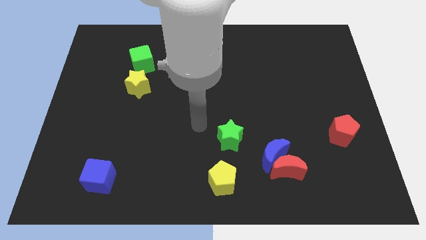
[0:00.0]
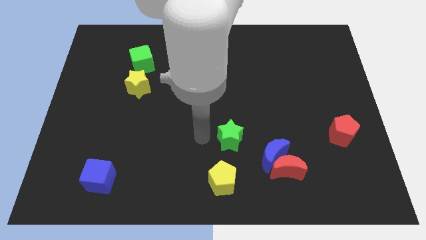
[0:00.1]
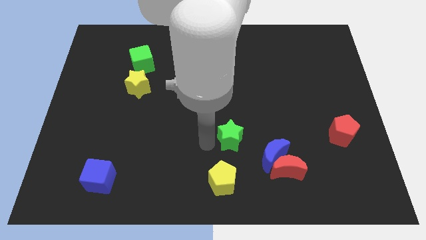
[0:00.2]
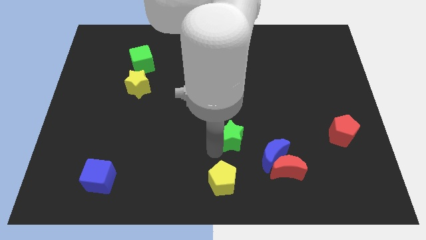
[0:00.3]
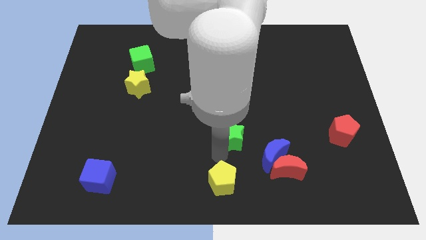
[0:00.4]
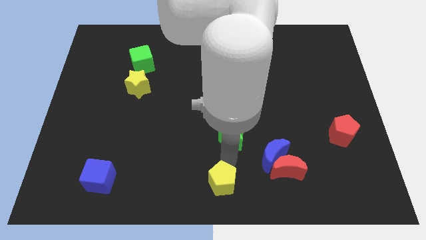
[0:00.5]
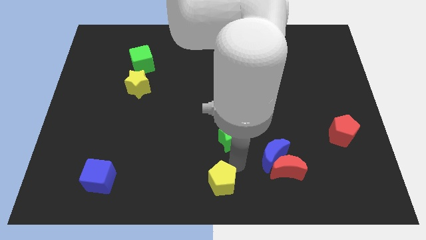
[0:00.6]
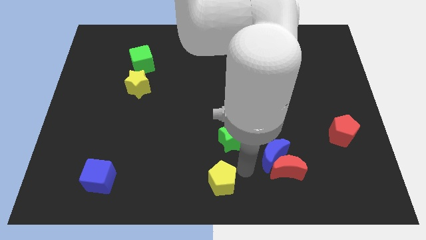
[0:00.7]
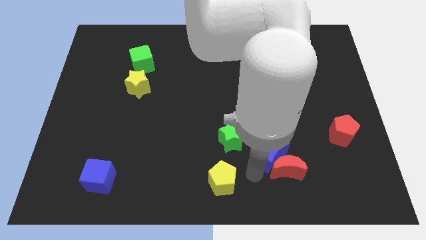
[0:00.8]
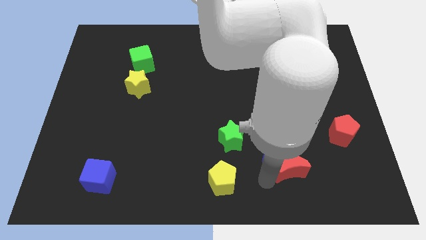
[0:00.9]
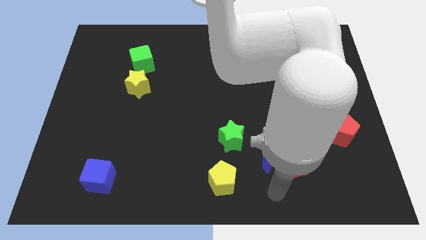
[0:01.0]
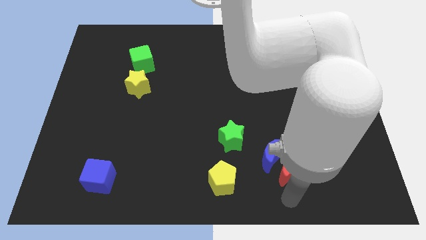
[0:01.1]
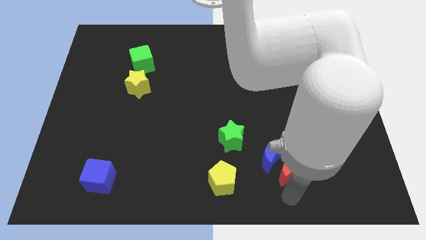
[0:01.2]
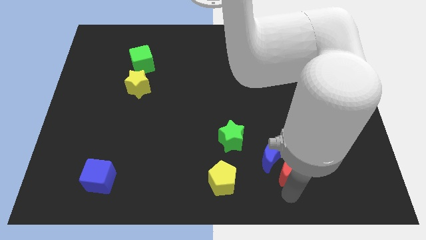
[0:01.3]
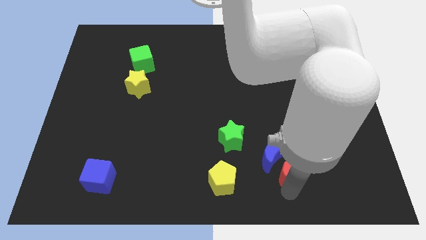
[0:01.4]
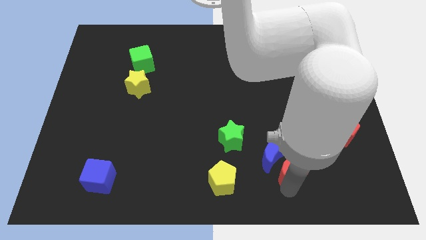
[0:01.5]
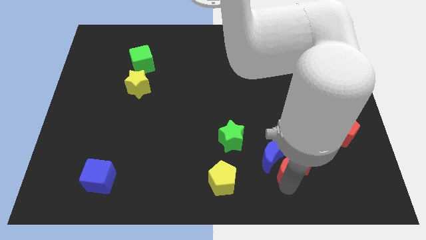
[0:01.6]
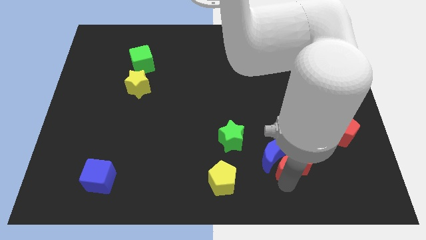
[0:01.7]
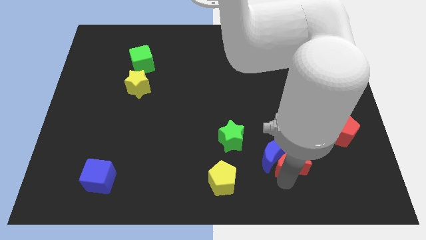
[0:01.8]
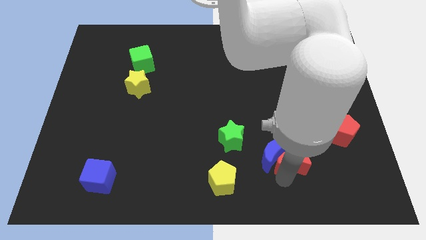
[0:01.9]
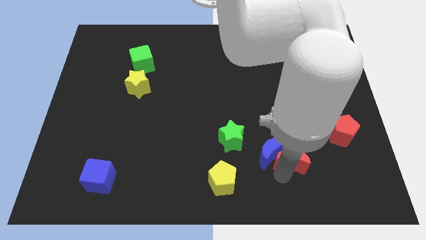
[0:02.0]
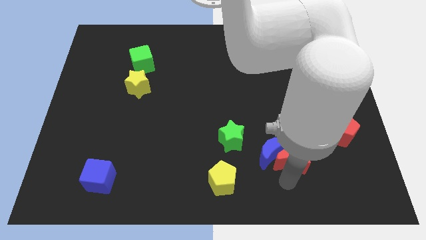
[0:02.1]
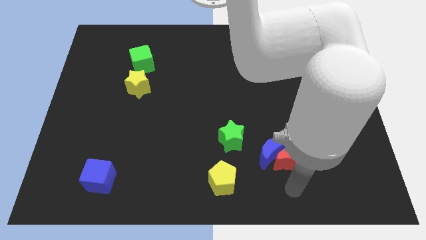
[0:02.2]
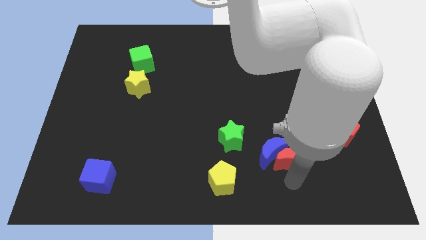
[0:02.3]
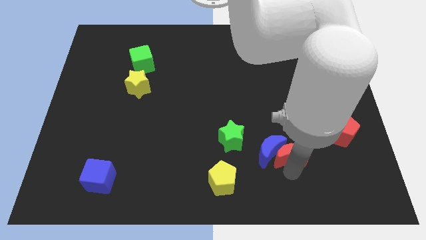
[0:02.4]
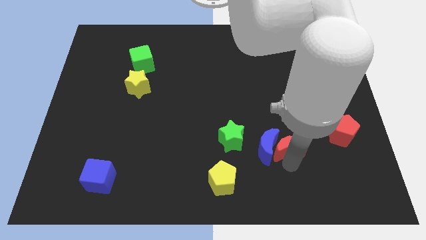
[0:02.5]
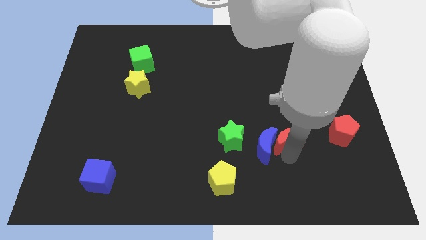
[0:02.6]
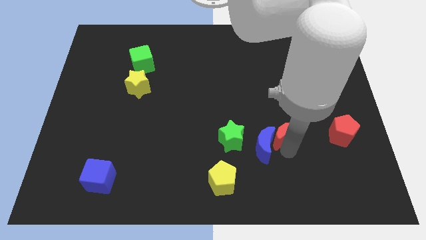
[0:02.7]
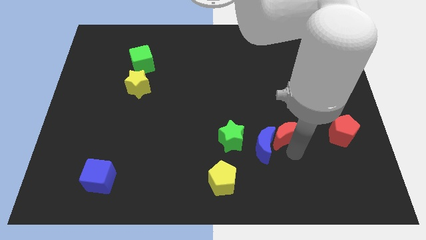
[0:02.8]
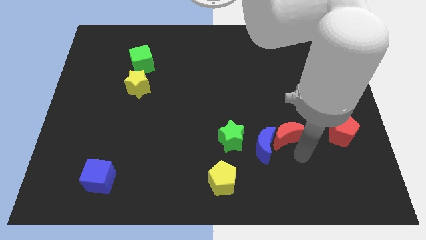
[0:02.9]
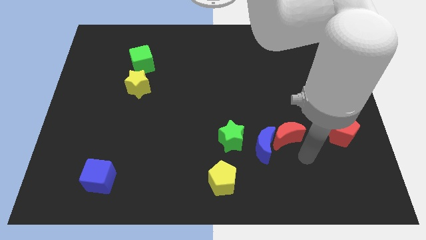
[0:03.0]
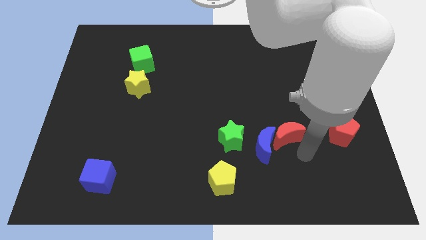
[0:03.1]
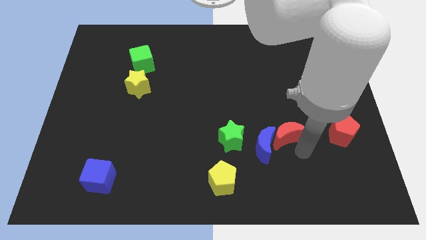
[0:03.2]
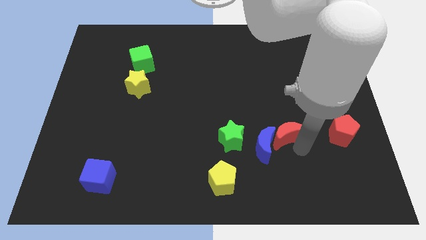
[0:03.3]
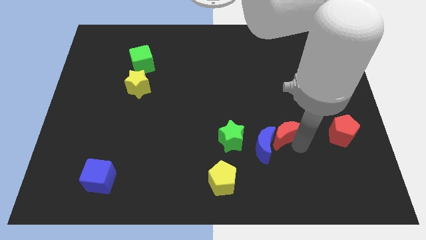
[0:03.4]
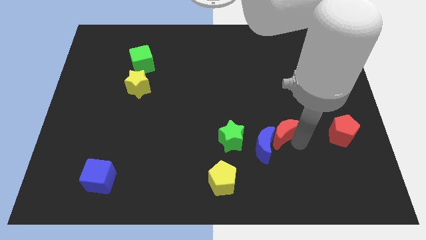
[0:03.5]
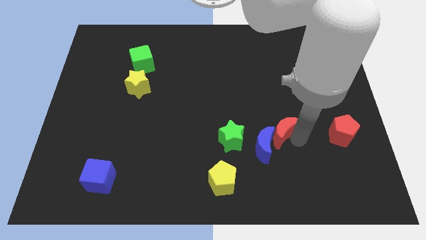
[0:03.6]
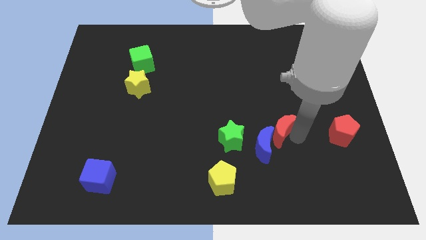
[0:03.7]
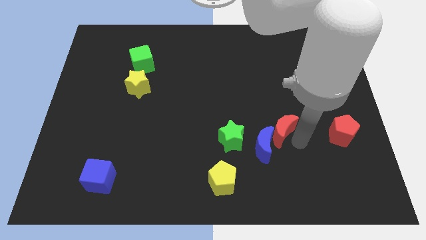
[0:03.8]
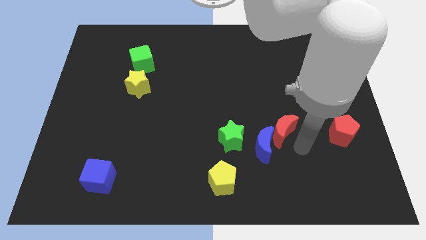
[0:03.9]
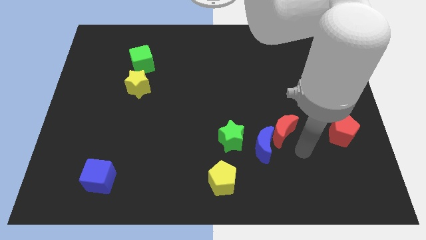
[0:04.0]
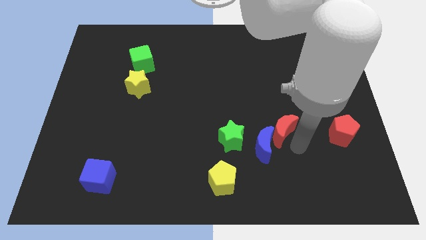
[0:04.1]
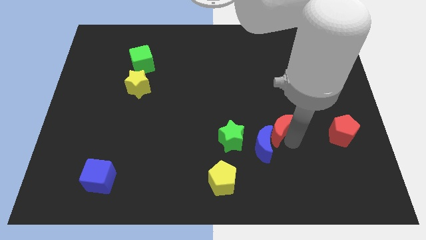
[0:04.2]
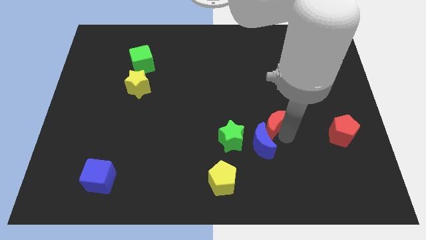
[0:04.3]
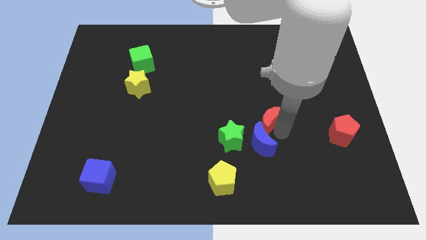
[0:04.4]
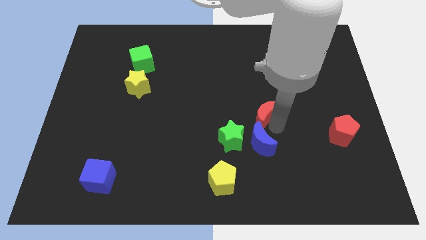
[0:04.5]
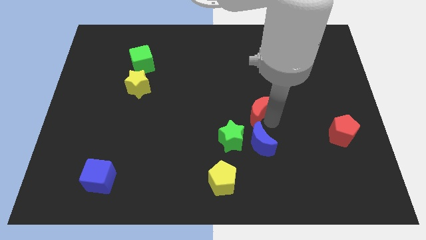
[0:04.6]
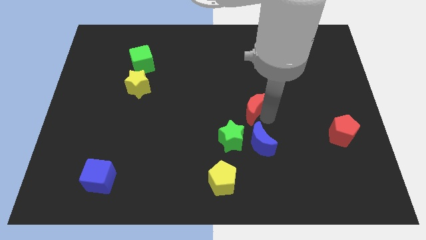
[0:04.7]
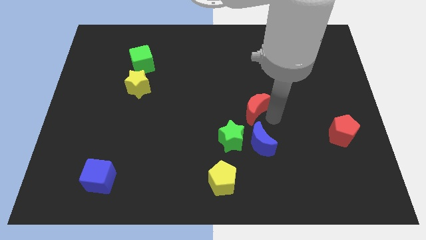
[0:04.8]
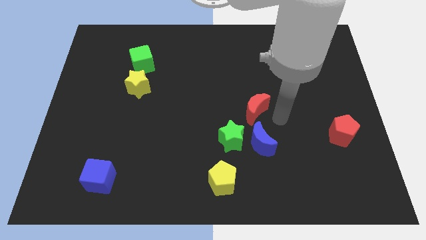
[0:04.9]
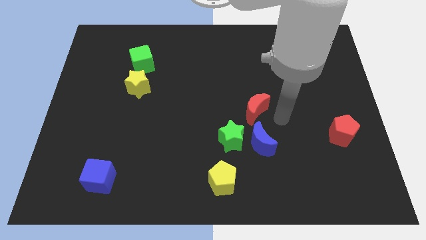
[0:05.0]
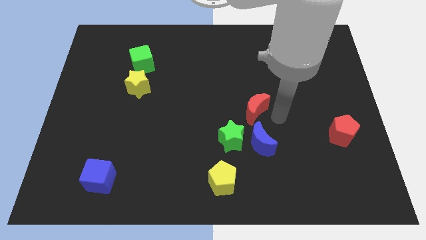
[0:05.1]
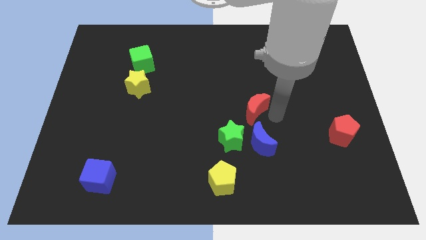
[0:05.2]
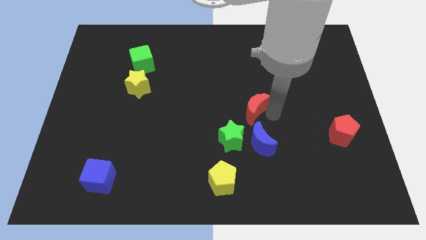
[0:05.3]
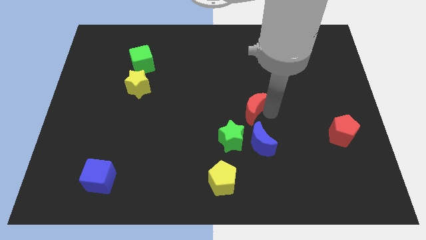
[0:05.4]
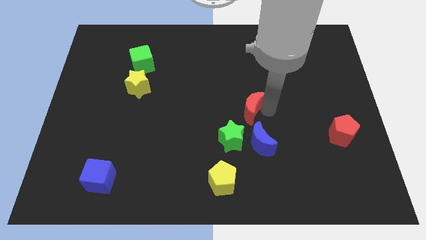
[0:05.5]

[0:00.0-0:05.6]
push the red moon to the top side of the green star

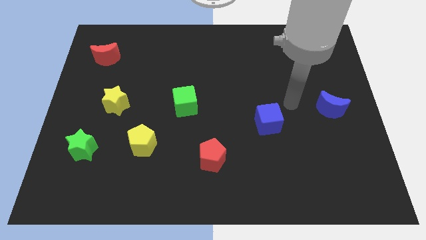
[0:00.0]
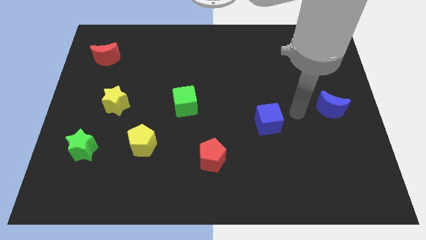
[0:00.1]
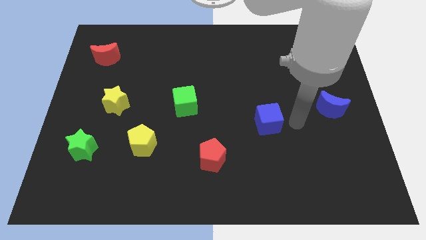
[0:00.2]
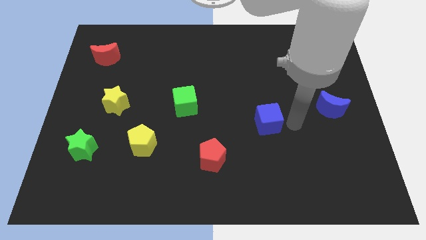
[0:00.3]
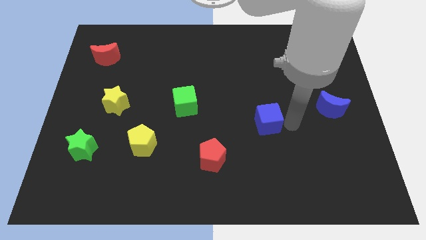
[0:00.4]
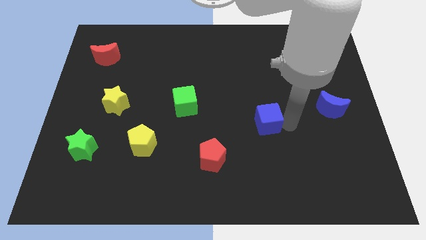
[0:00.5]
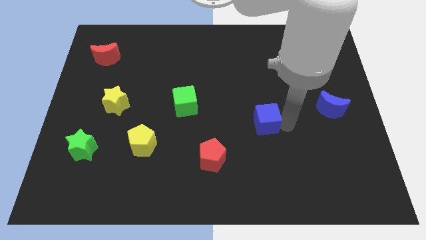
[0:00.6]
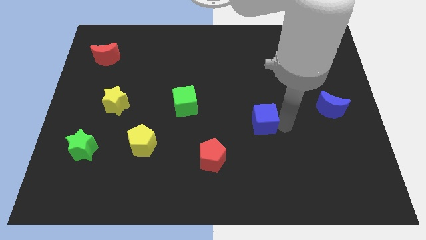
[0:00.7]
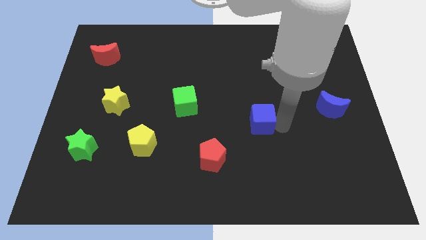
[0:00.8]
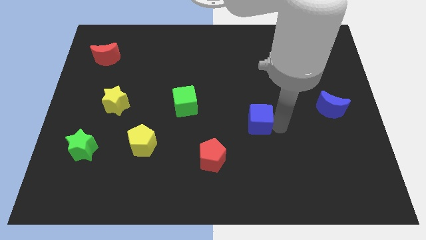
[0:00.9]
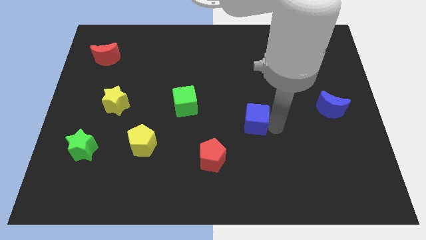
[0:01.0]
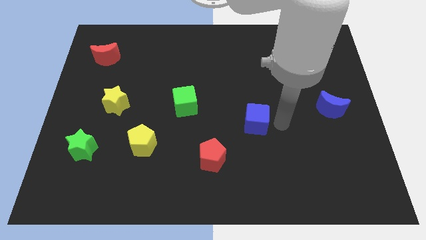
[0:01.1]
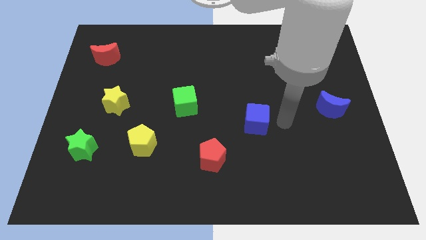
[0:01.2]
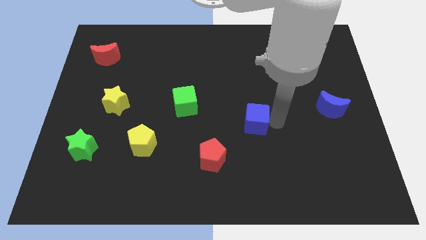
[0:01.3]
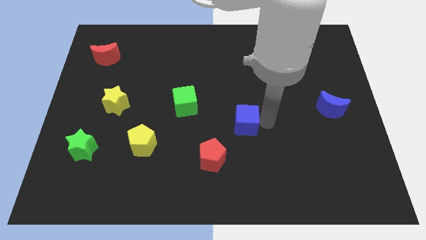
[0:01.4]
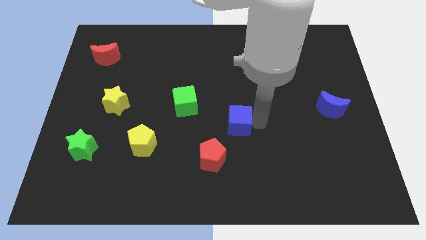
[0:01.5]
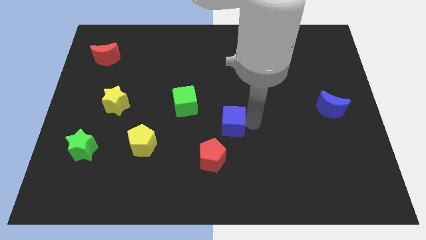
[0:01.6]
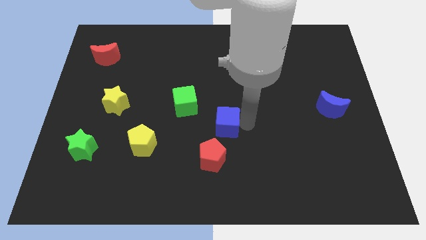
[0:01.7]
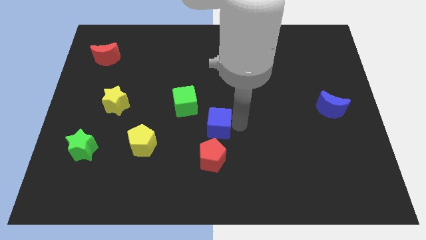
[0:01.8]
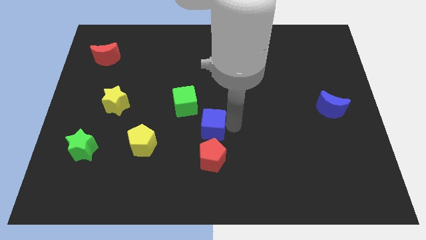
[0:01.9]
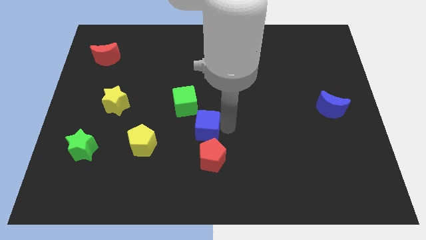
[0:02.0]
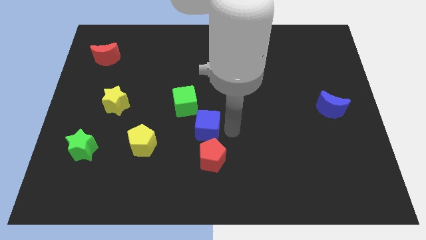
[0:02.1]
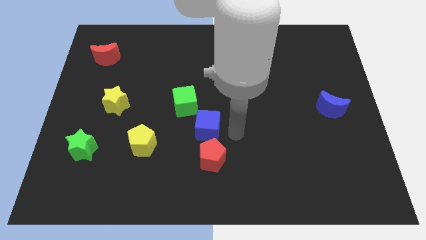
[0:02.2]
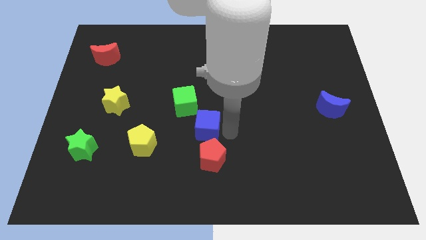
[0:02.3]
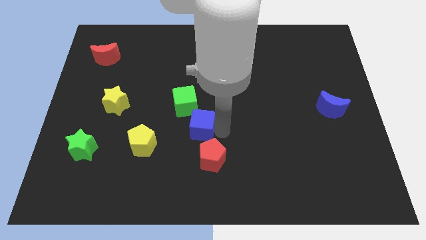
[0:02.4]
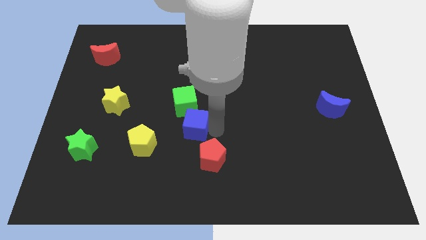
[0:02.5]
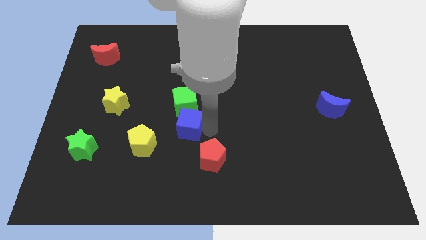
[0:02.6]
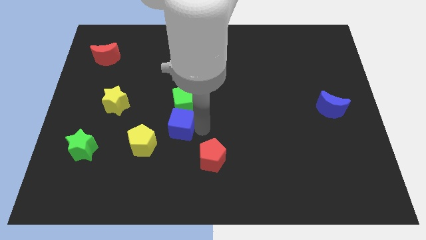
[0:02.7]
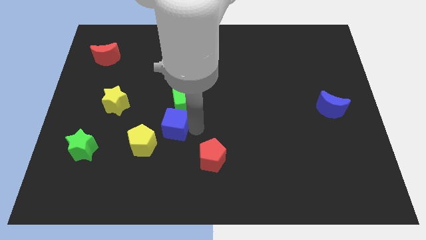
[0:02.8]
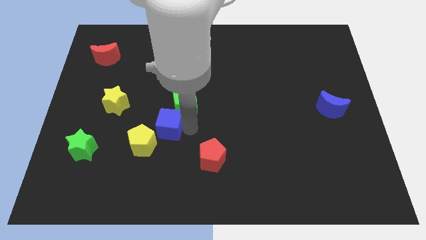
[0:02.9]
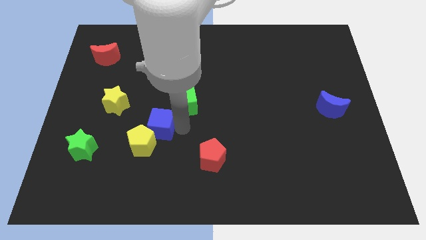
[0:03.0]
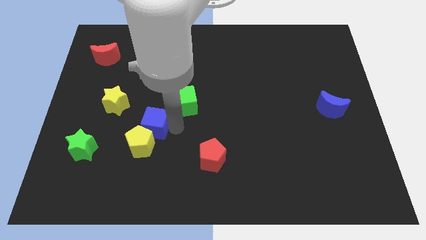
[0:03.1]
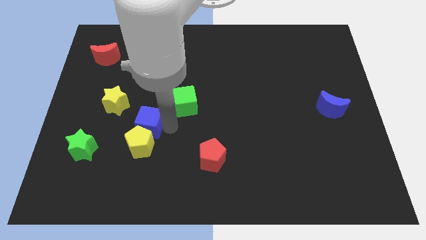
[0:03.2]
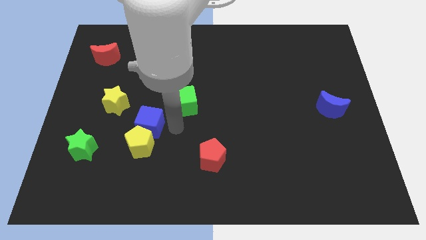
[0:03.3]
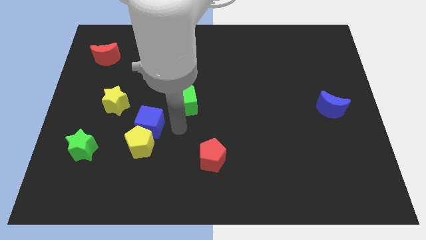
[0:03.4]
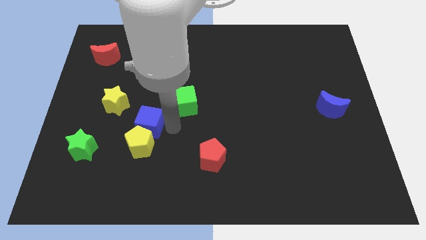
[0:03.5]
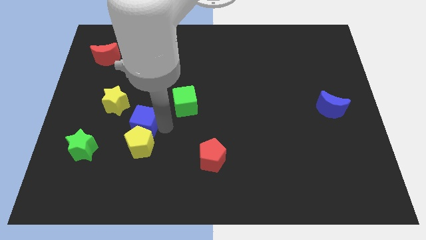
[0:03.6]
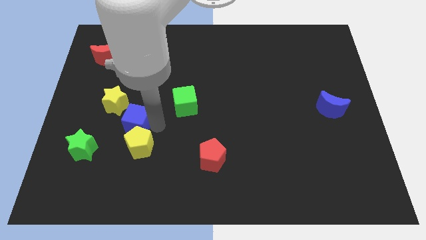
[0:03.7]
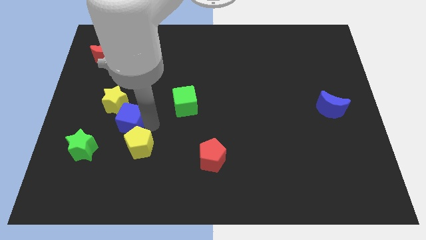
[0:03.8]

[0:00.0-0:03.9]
push the blue cube to the bottom side of the yellow star
